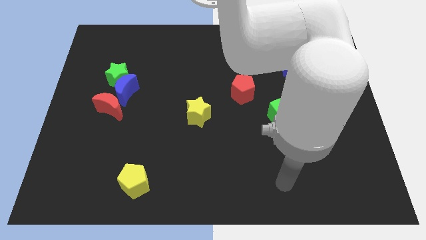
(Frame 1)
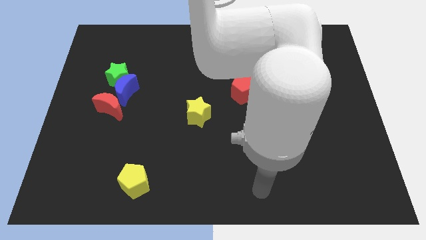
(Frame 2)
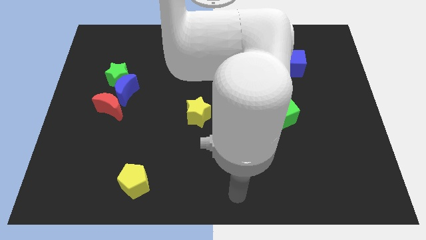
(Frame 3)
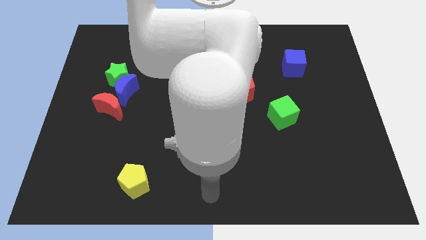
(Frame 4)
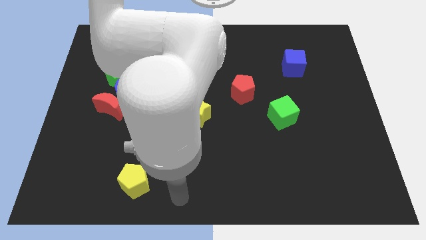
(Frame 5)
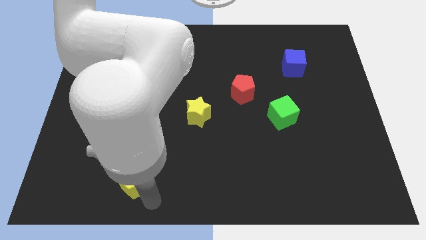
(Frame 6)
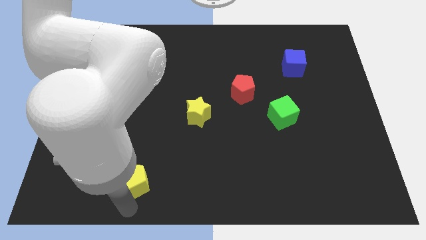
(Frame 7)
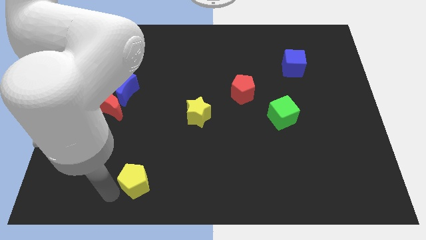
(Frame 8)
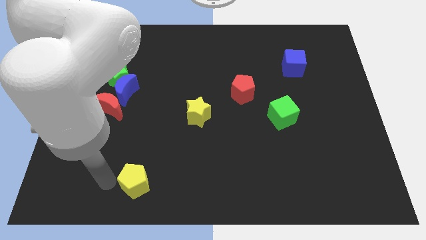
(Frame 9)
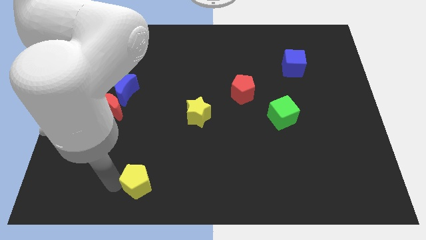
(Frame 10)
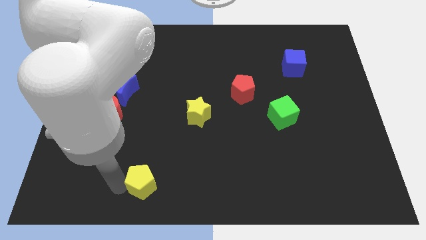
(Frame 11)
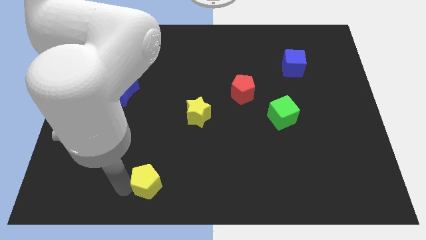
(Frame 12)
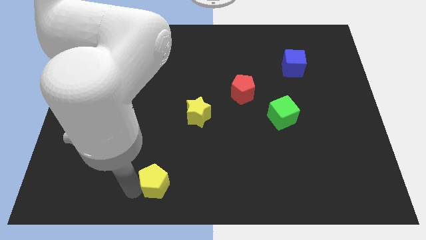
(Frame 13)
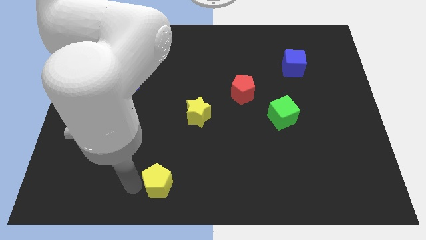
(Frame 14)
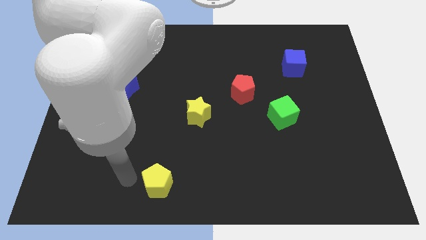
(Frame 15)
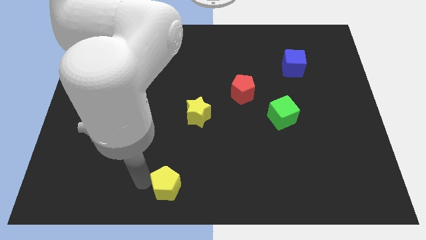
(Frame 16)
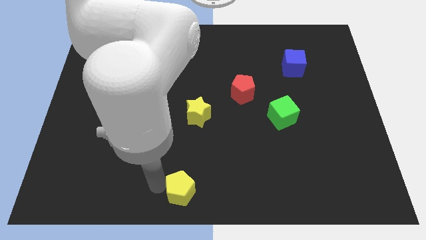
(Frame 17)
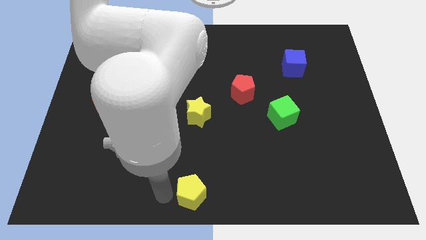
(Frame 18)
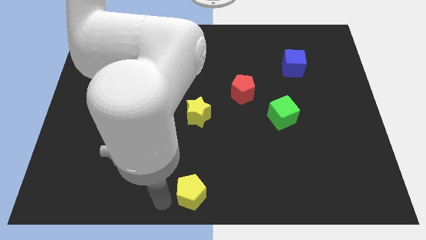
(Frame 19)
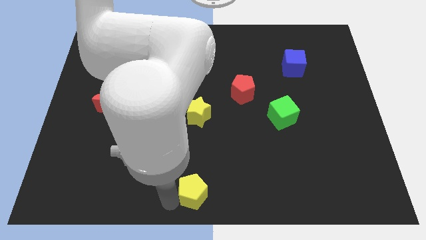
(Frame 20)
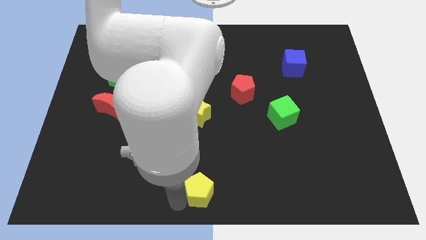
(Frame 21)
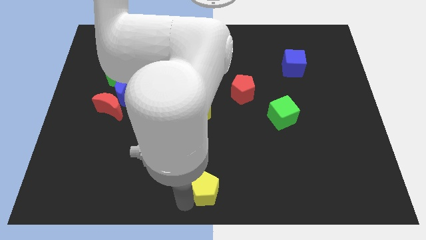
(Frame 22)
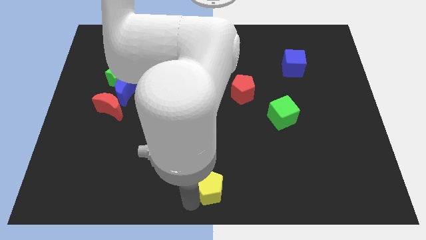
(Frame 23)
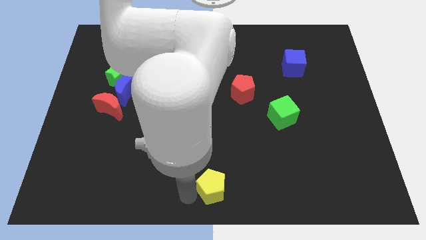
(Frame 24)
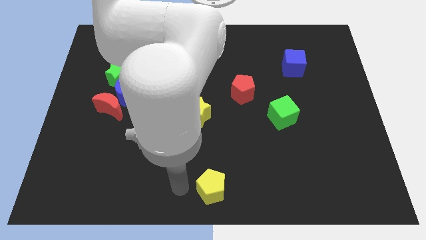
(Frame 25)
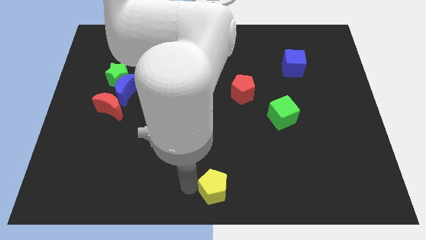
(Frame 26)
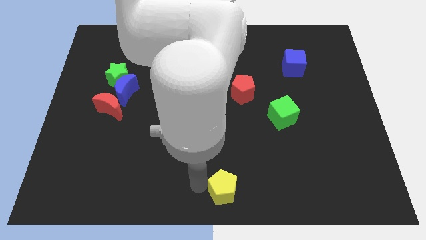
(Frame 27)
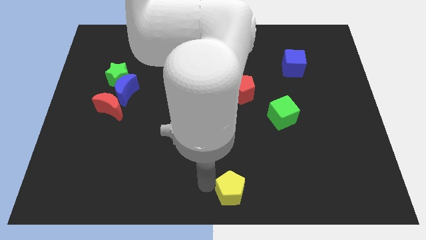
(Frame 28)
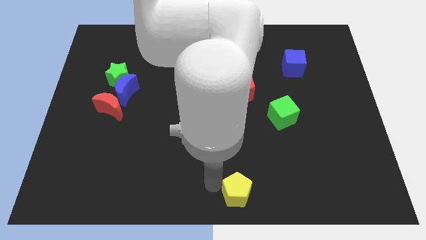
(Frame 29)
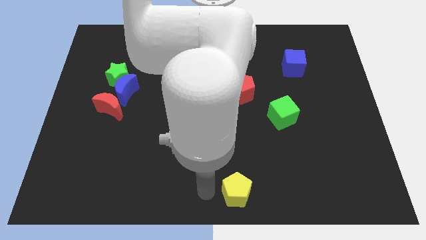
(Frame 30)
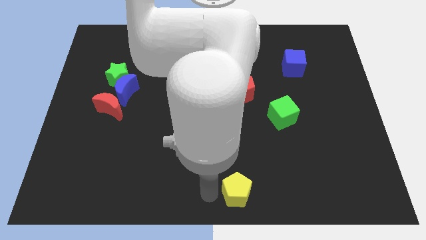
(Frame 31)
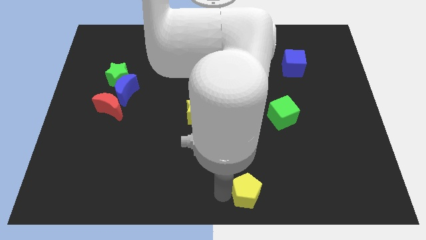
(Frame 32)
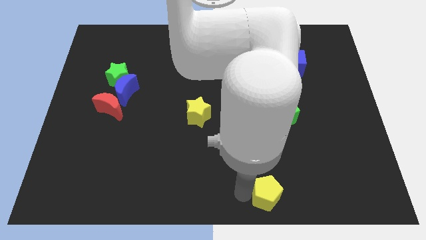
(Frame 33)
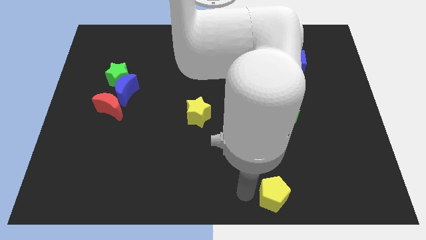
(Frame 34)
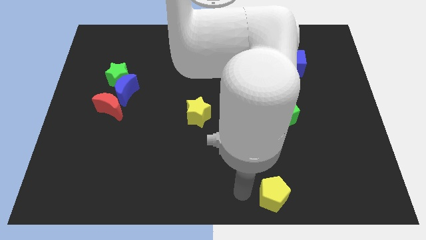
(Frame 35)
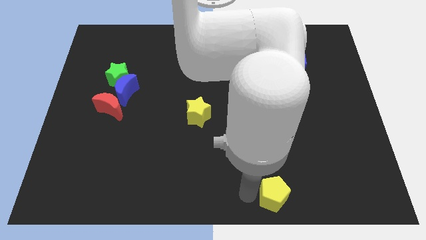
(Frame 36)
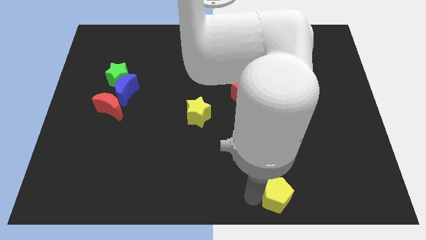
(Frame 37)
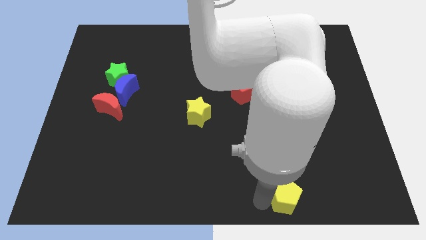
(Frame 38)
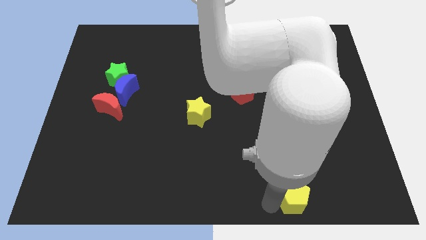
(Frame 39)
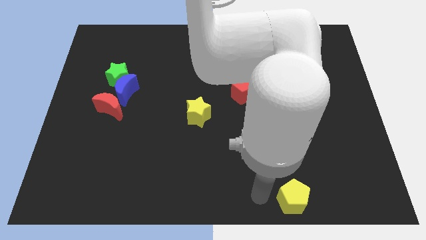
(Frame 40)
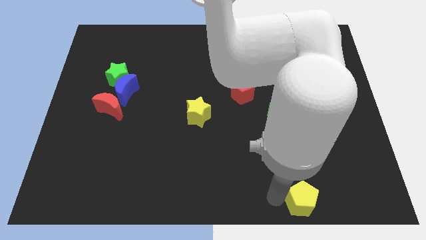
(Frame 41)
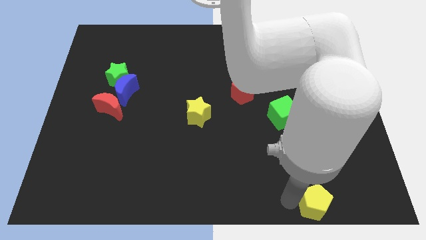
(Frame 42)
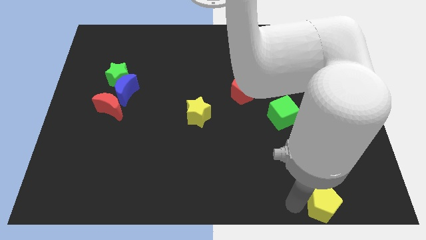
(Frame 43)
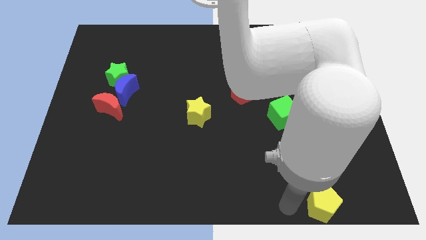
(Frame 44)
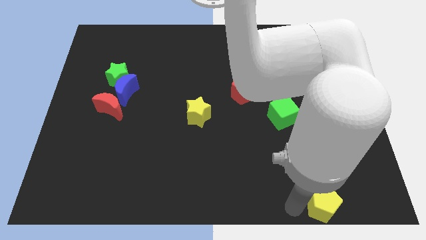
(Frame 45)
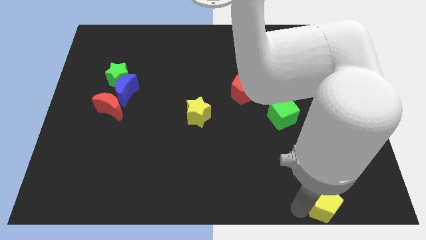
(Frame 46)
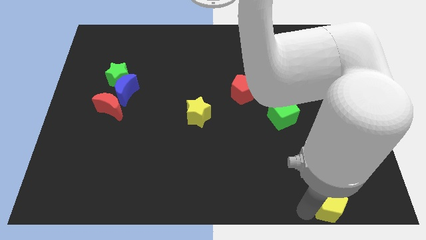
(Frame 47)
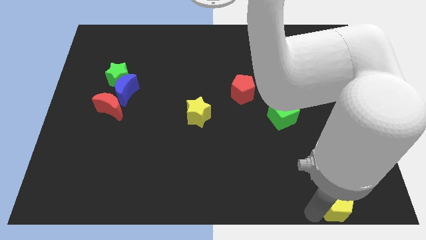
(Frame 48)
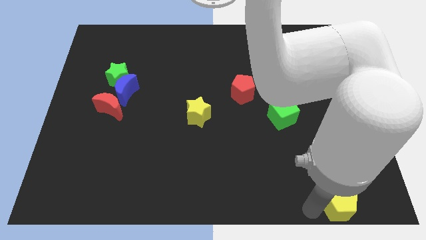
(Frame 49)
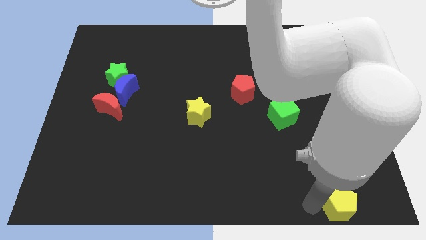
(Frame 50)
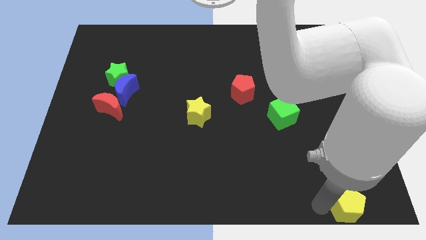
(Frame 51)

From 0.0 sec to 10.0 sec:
move the yellow pentagon to the bottom right

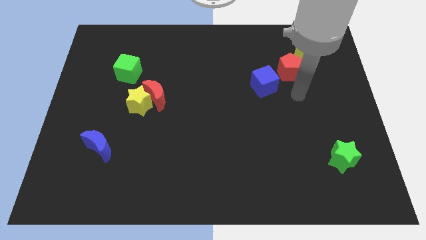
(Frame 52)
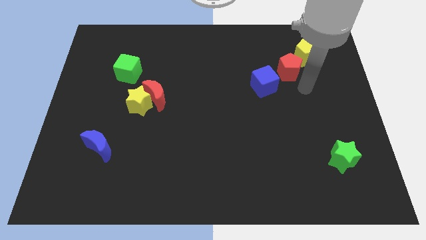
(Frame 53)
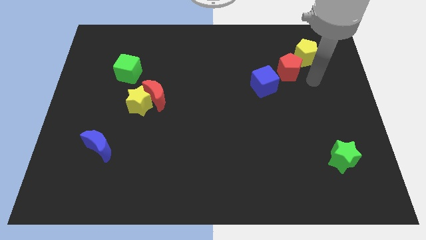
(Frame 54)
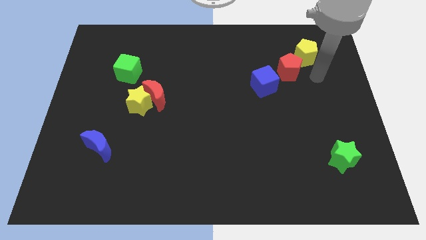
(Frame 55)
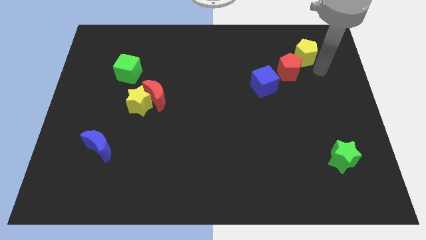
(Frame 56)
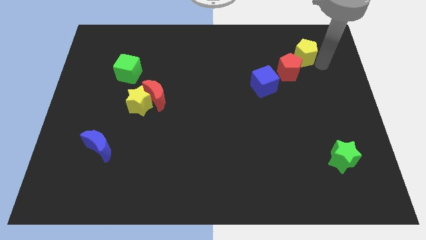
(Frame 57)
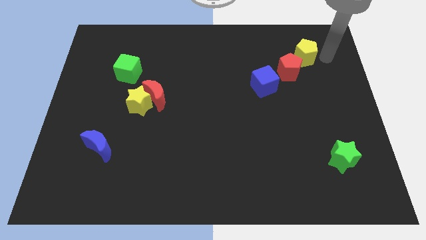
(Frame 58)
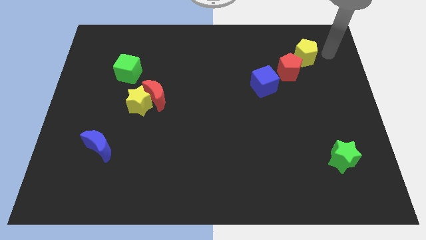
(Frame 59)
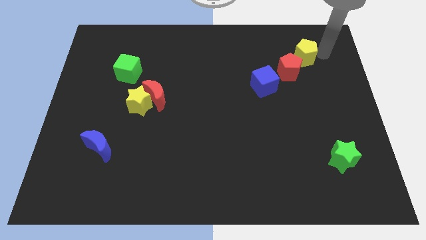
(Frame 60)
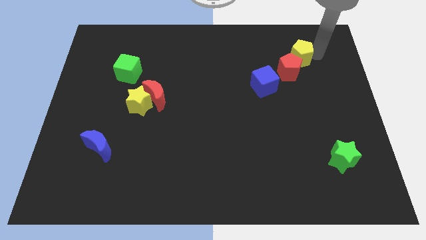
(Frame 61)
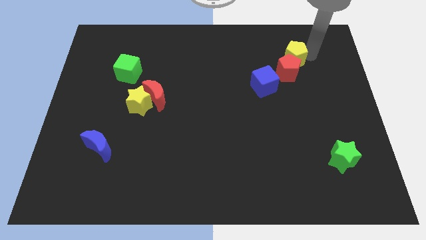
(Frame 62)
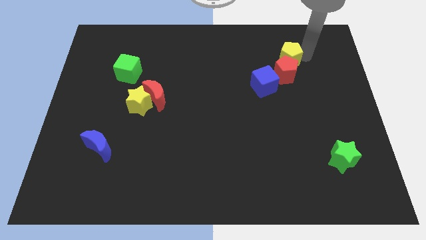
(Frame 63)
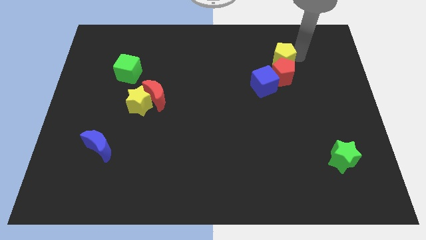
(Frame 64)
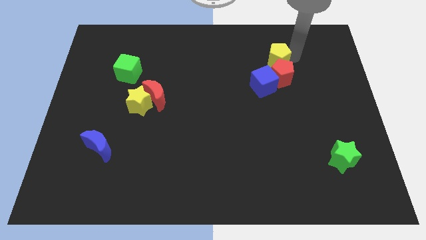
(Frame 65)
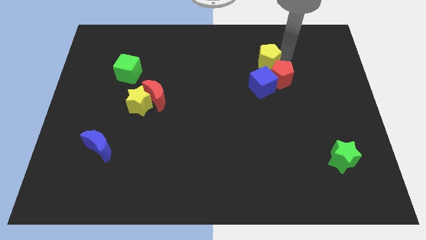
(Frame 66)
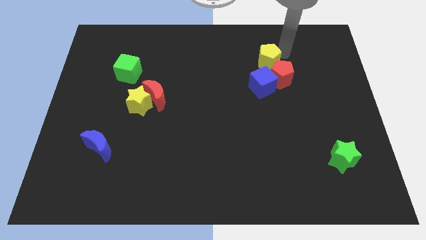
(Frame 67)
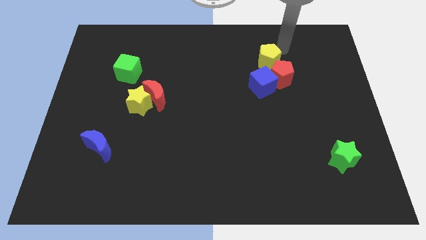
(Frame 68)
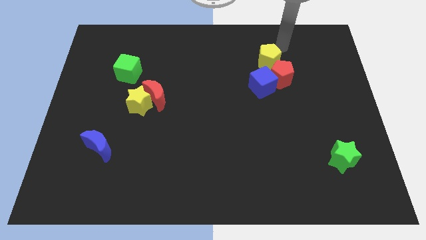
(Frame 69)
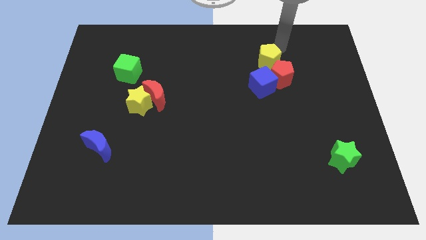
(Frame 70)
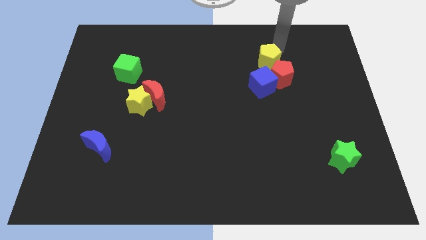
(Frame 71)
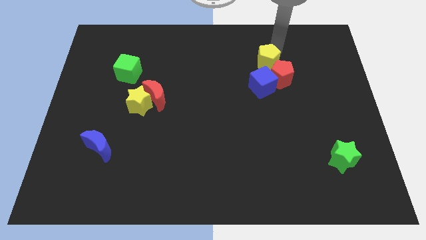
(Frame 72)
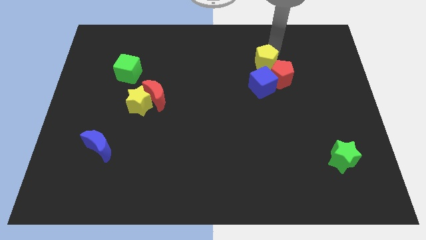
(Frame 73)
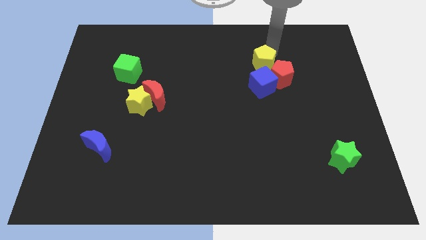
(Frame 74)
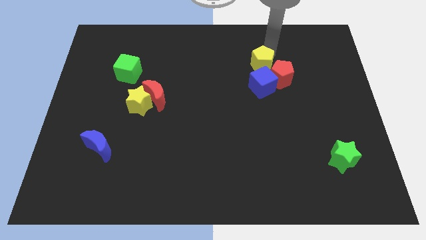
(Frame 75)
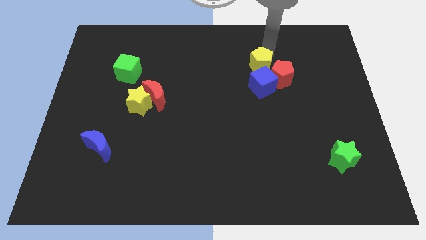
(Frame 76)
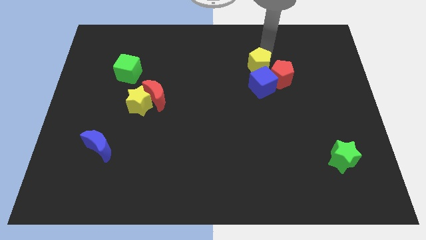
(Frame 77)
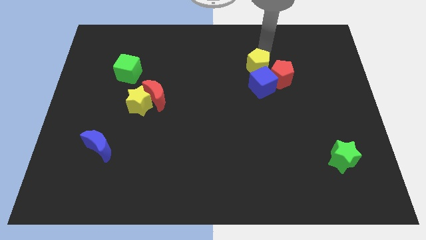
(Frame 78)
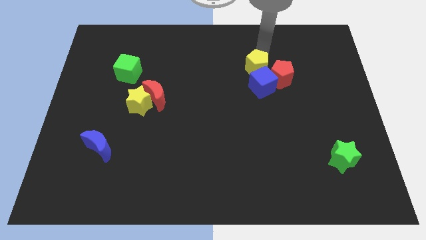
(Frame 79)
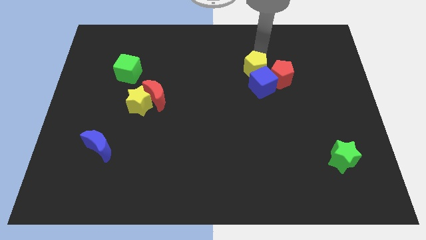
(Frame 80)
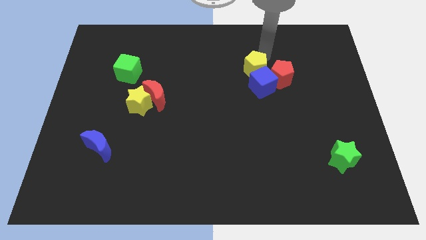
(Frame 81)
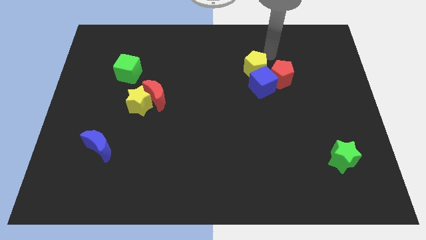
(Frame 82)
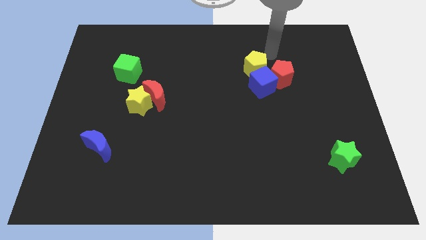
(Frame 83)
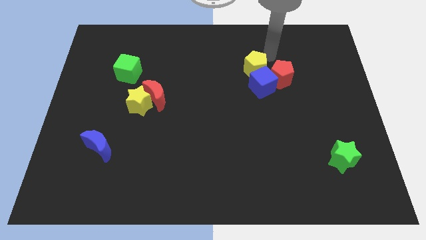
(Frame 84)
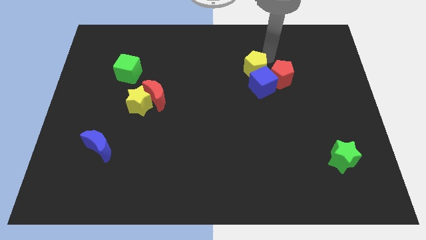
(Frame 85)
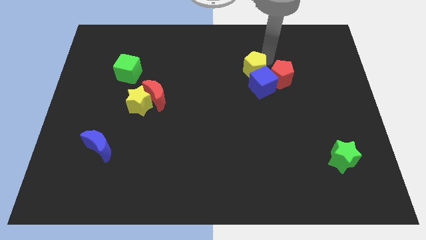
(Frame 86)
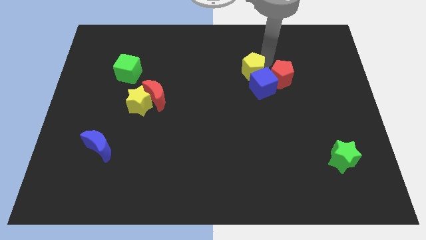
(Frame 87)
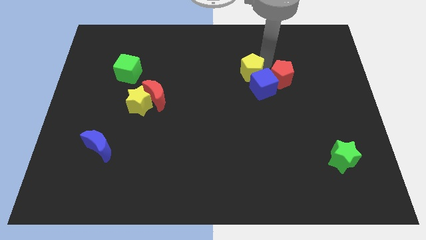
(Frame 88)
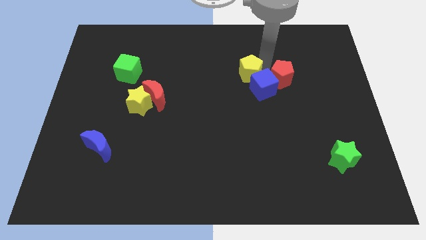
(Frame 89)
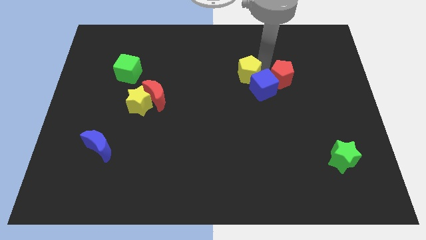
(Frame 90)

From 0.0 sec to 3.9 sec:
push the yellow pentagon to the center of the board
